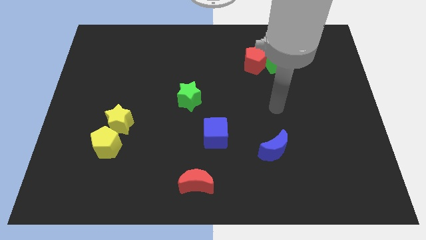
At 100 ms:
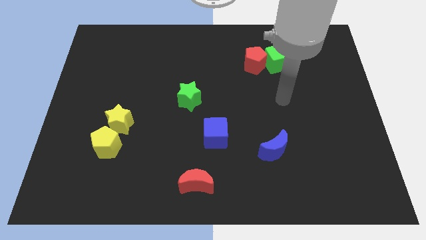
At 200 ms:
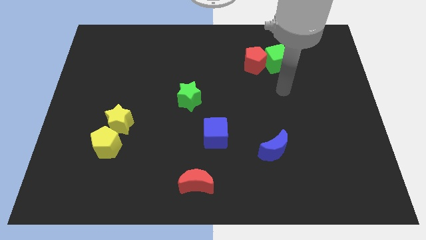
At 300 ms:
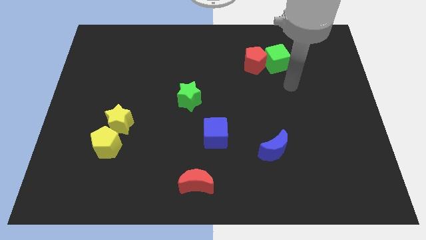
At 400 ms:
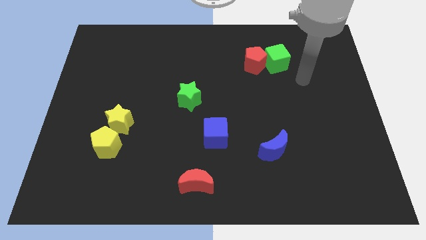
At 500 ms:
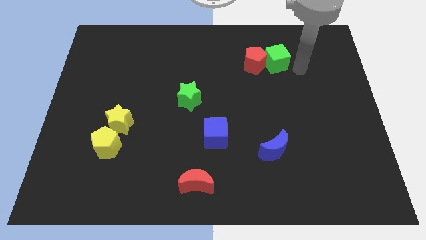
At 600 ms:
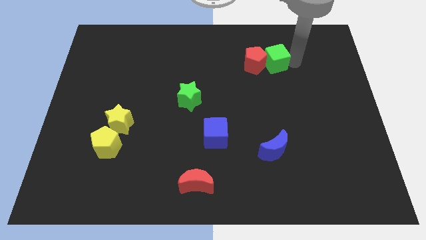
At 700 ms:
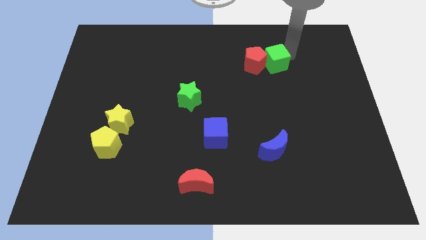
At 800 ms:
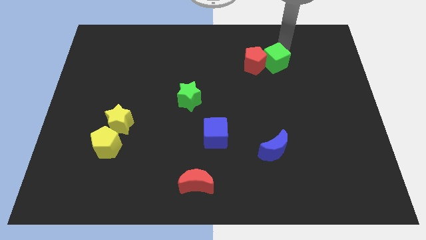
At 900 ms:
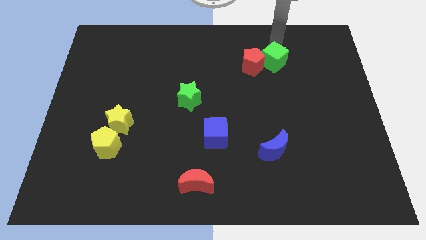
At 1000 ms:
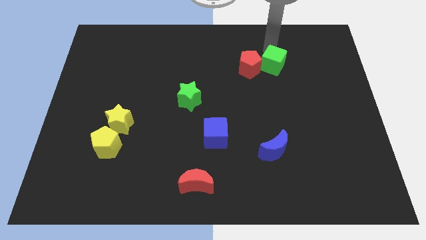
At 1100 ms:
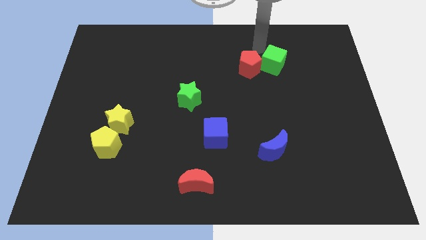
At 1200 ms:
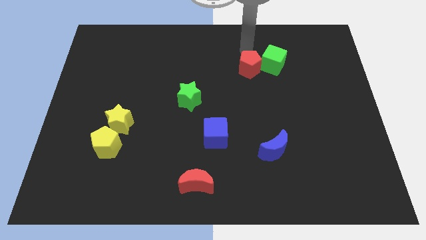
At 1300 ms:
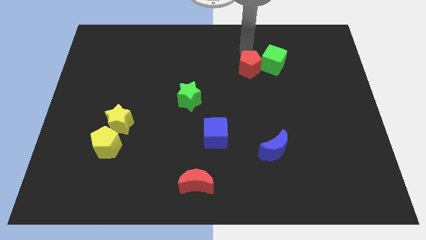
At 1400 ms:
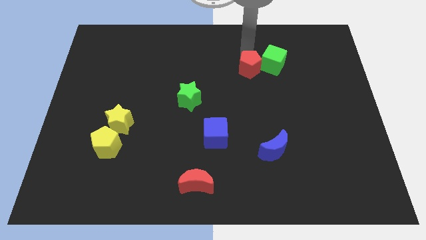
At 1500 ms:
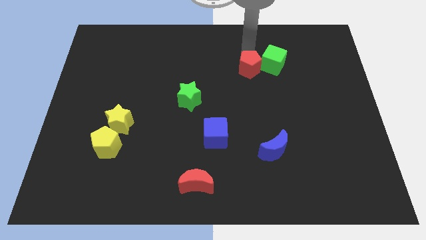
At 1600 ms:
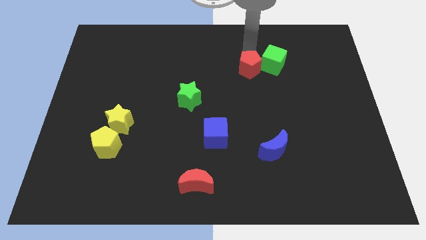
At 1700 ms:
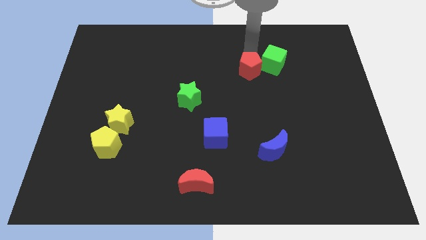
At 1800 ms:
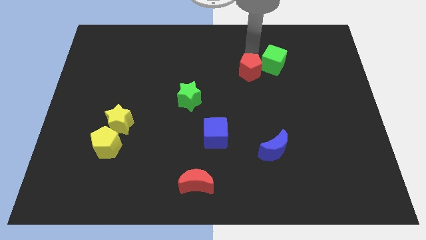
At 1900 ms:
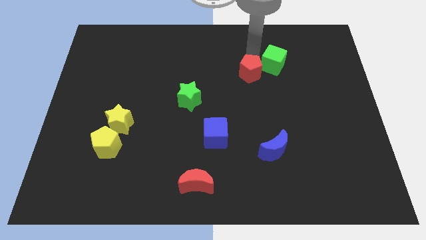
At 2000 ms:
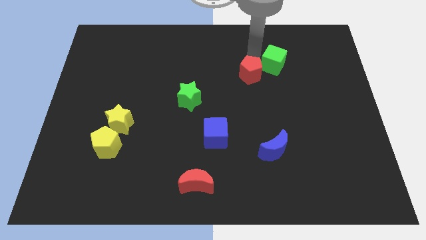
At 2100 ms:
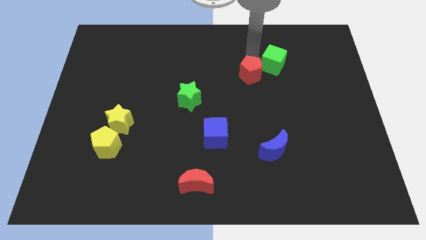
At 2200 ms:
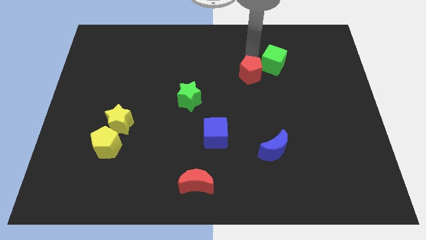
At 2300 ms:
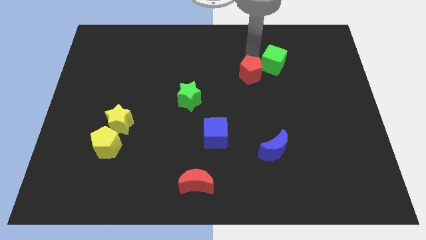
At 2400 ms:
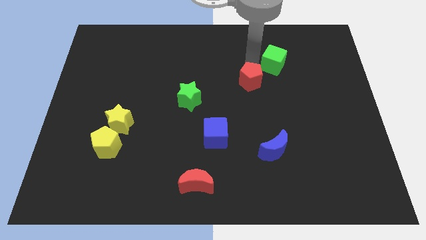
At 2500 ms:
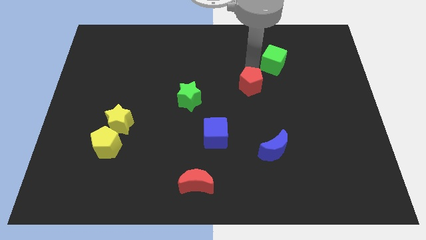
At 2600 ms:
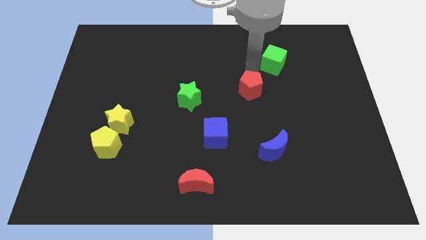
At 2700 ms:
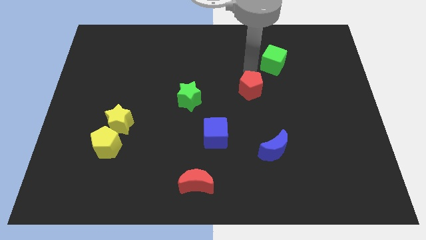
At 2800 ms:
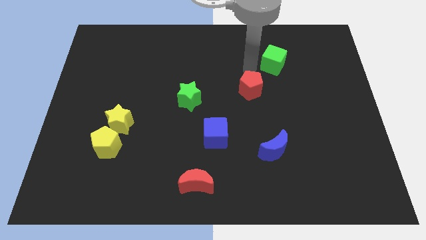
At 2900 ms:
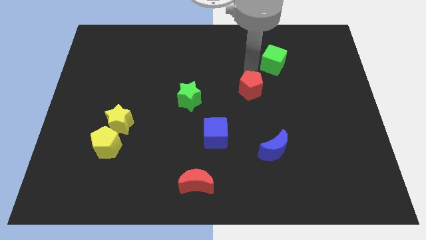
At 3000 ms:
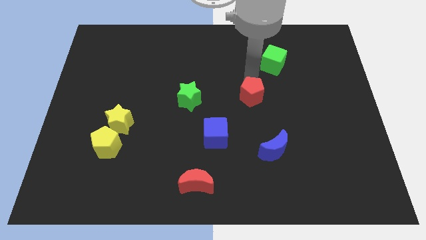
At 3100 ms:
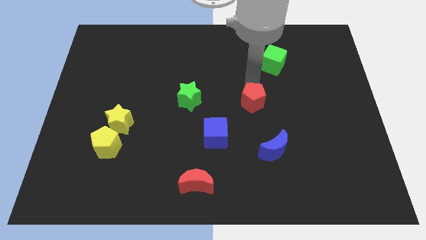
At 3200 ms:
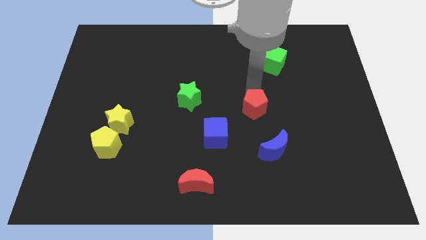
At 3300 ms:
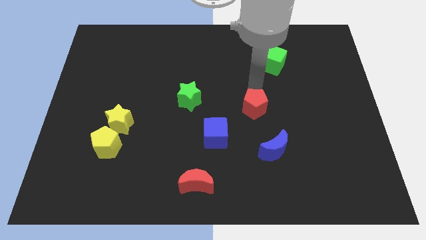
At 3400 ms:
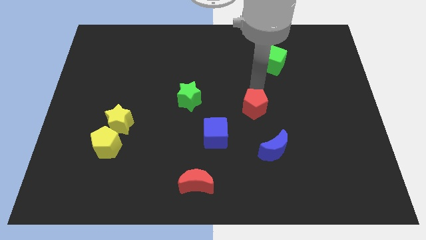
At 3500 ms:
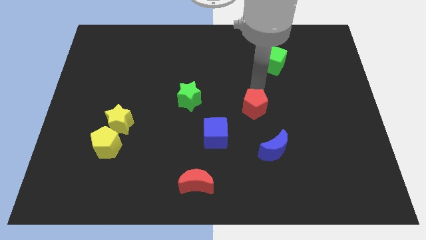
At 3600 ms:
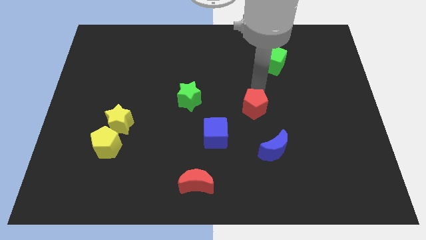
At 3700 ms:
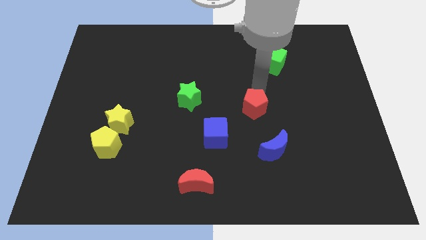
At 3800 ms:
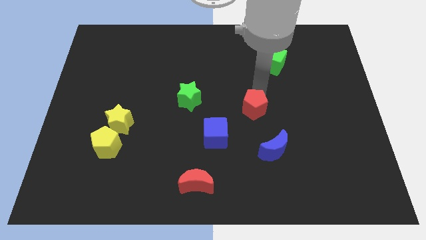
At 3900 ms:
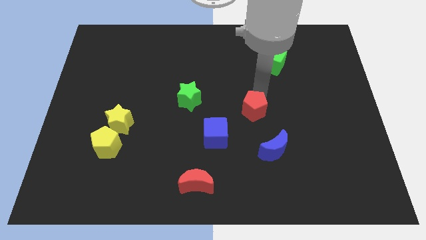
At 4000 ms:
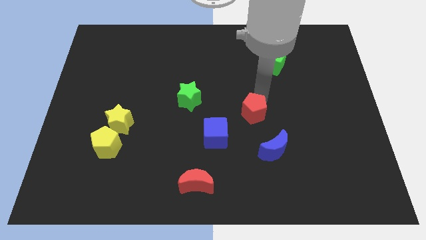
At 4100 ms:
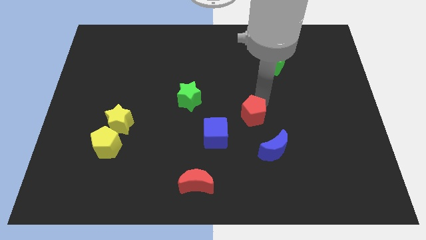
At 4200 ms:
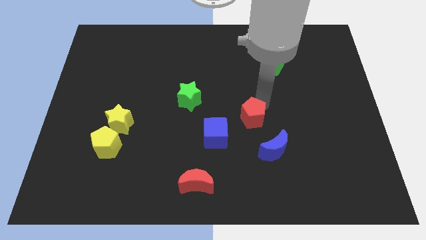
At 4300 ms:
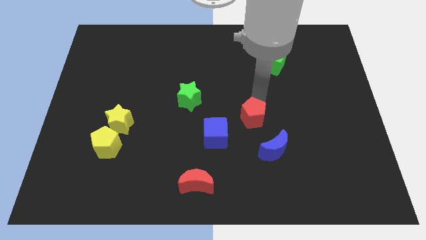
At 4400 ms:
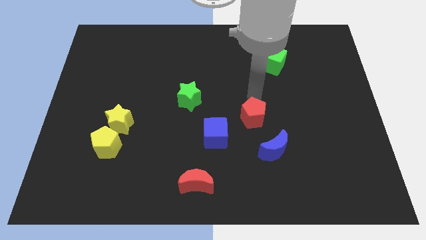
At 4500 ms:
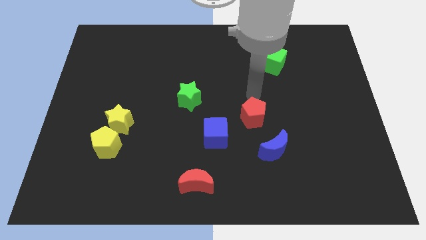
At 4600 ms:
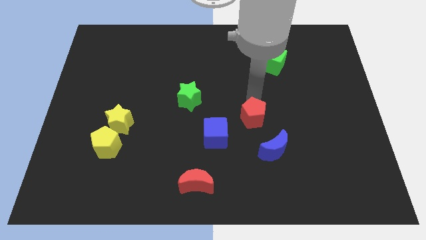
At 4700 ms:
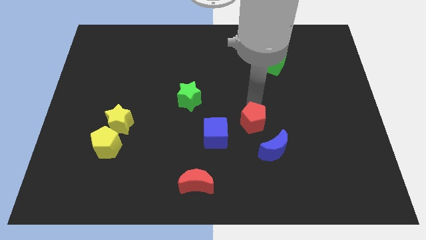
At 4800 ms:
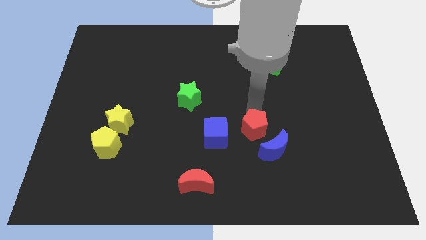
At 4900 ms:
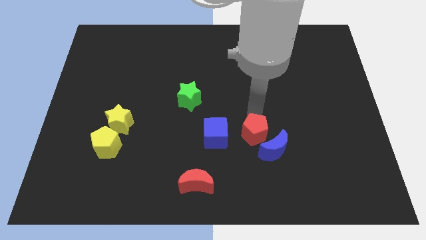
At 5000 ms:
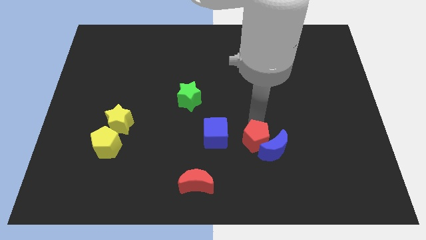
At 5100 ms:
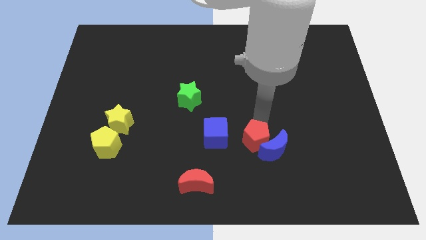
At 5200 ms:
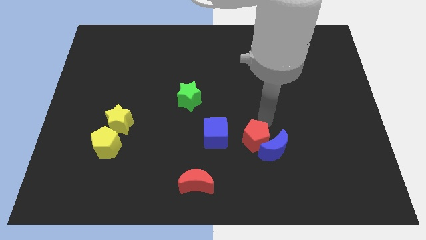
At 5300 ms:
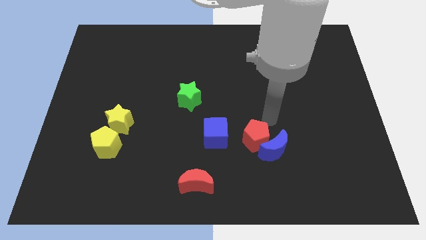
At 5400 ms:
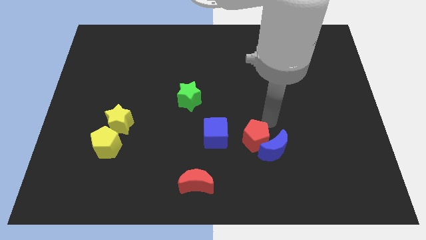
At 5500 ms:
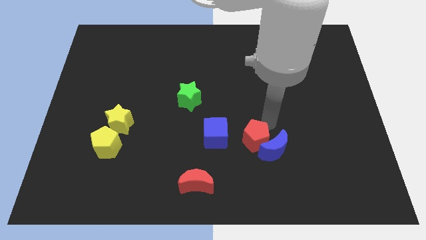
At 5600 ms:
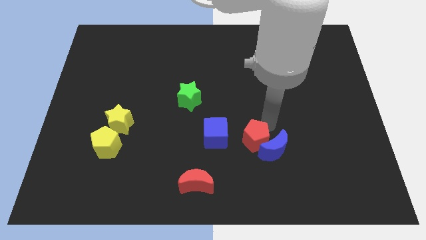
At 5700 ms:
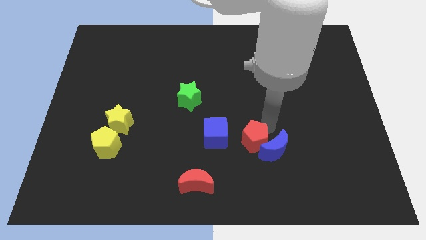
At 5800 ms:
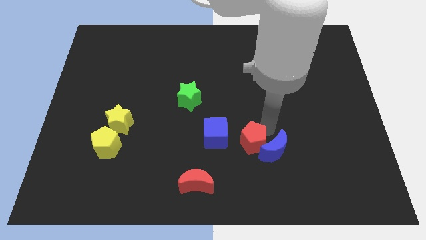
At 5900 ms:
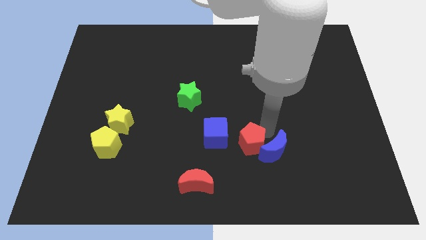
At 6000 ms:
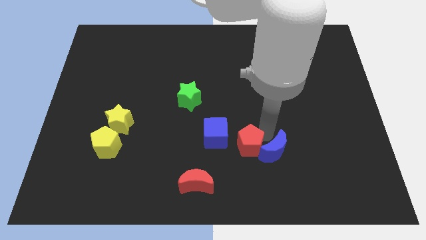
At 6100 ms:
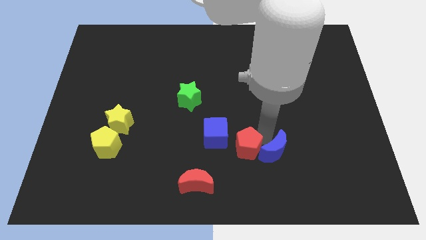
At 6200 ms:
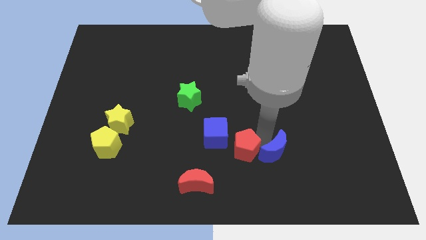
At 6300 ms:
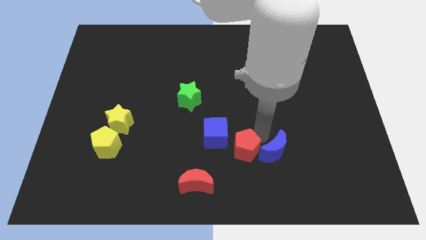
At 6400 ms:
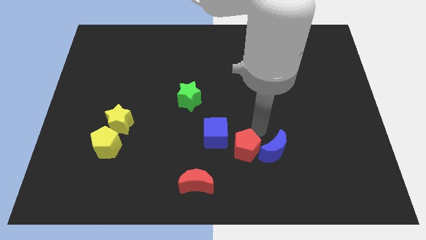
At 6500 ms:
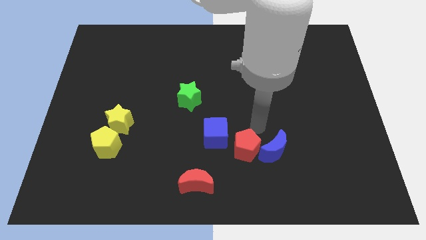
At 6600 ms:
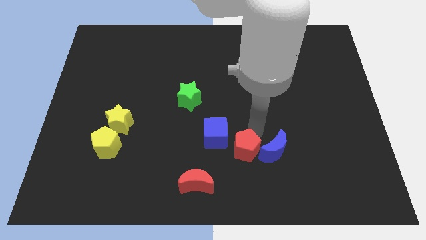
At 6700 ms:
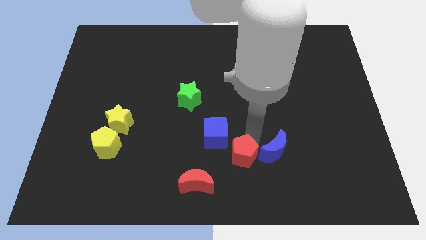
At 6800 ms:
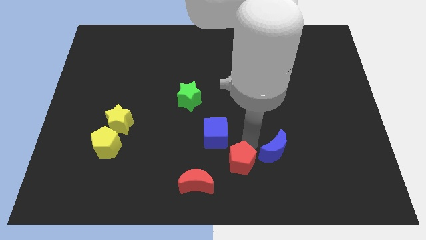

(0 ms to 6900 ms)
put the red pentagon to the bottom side
